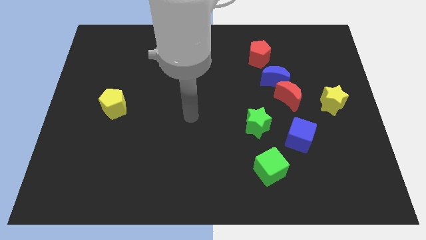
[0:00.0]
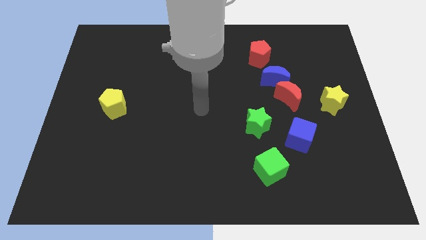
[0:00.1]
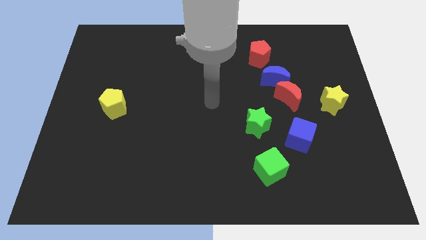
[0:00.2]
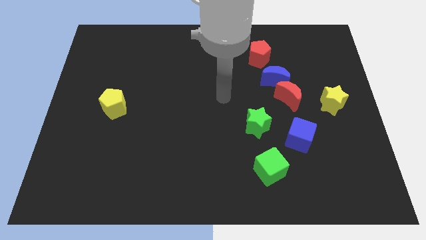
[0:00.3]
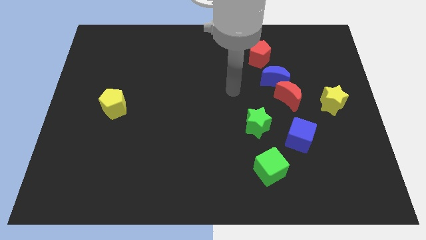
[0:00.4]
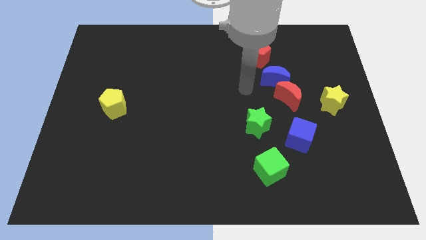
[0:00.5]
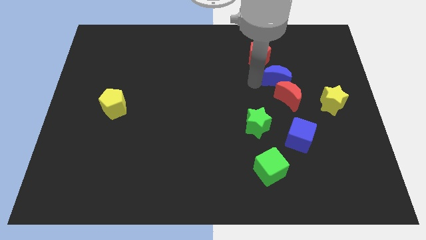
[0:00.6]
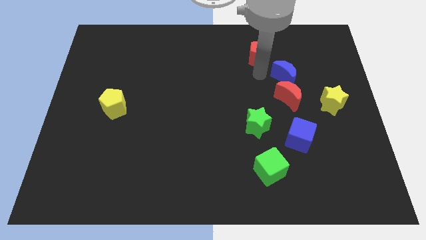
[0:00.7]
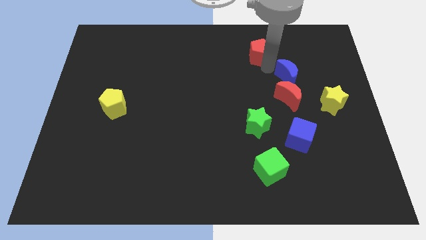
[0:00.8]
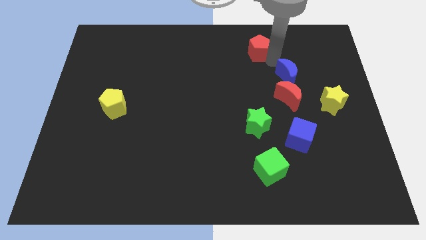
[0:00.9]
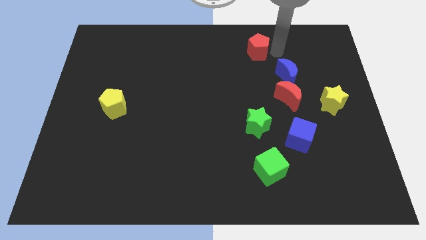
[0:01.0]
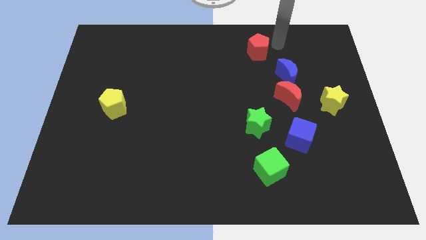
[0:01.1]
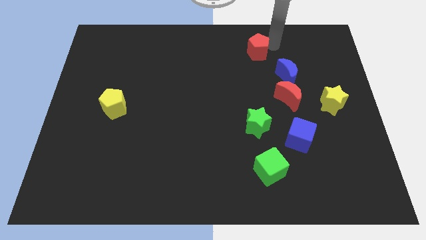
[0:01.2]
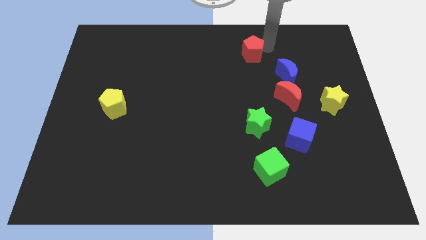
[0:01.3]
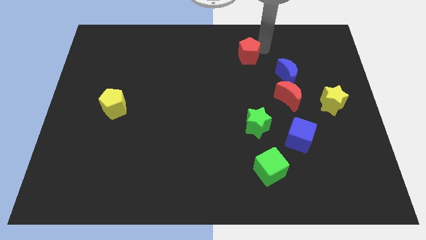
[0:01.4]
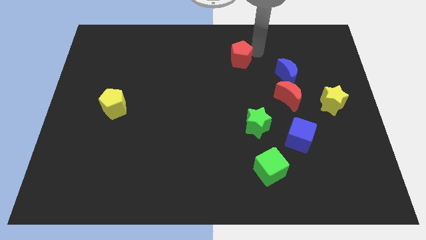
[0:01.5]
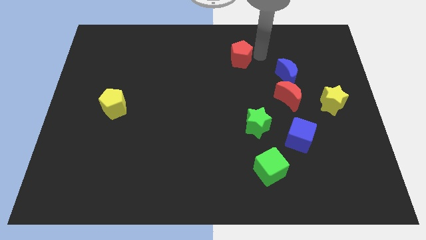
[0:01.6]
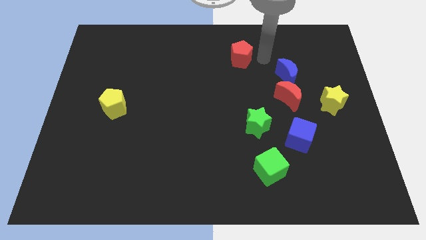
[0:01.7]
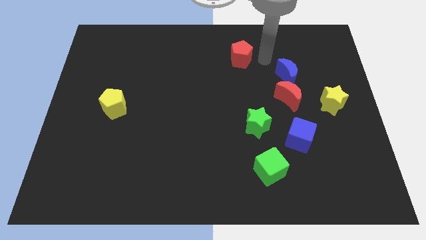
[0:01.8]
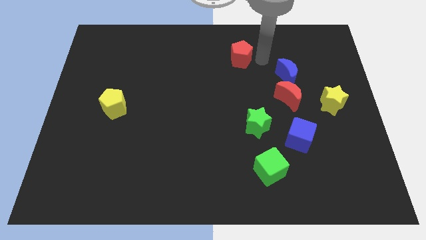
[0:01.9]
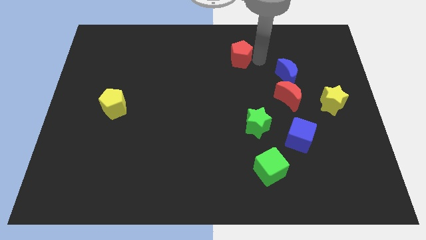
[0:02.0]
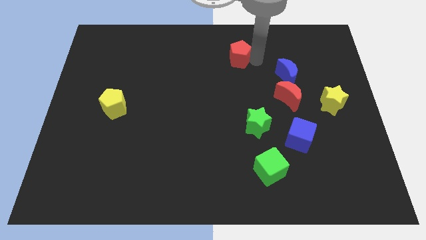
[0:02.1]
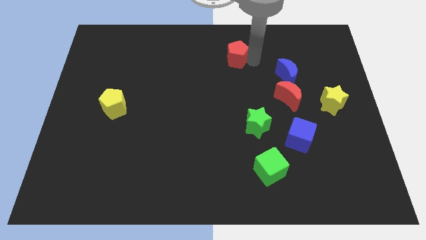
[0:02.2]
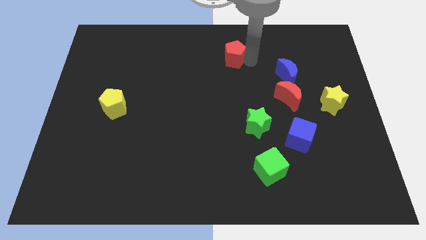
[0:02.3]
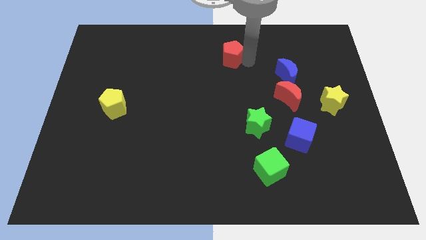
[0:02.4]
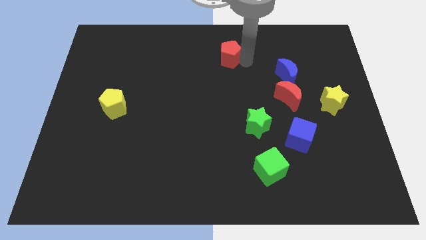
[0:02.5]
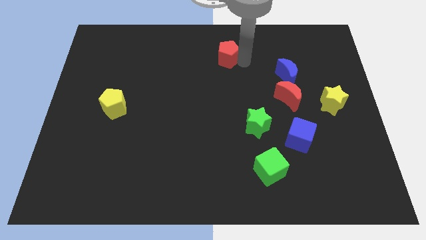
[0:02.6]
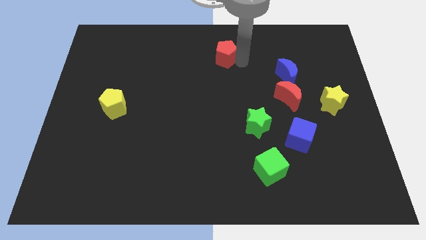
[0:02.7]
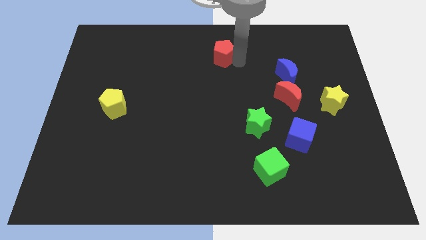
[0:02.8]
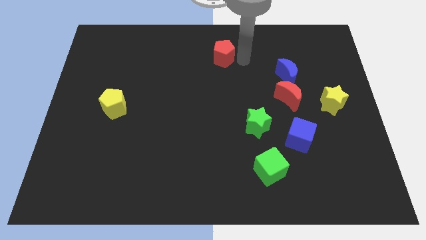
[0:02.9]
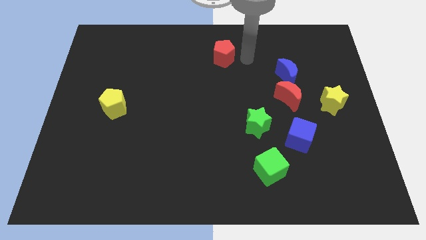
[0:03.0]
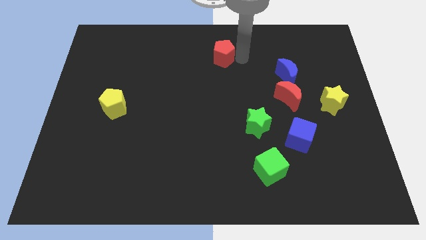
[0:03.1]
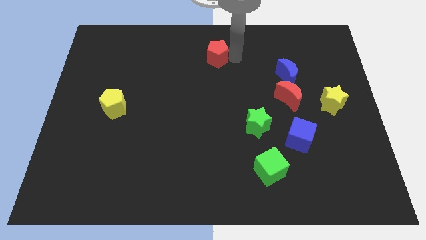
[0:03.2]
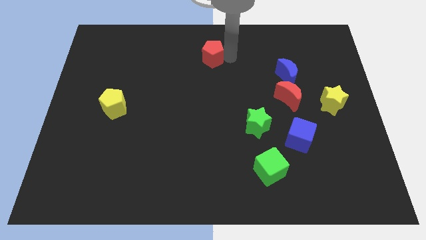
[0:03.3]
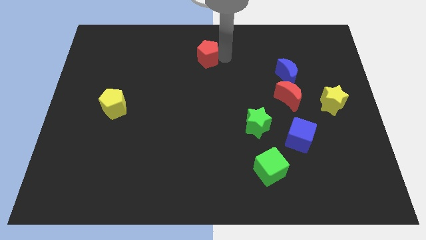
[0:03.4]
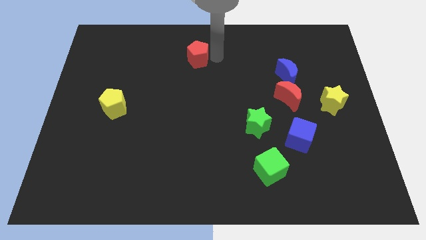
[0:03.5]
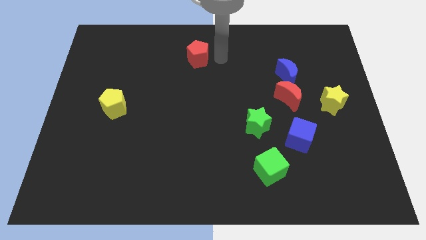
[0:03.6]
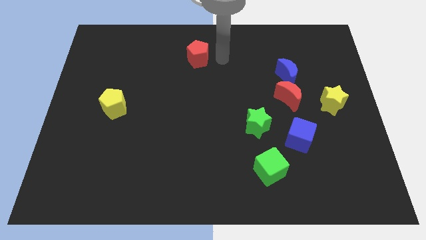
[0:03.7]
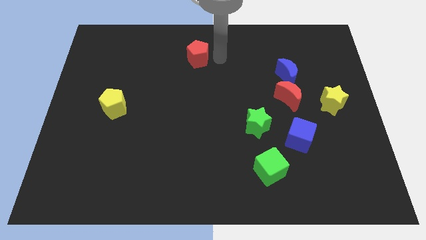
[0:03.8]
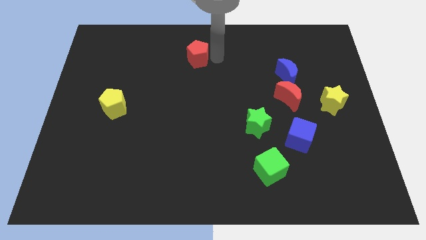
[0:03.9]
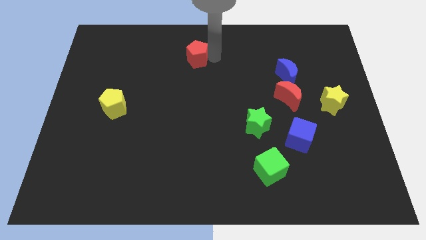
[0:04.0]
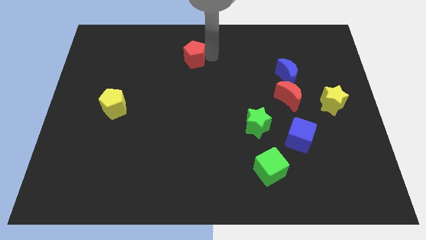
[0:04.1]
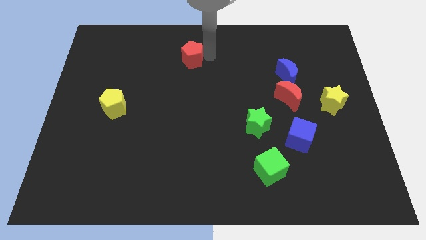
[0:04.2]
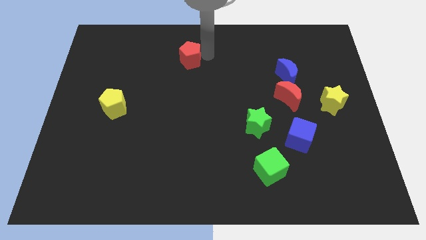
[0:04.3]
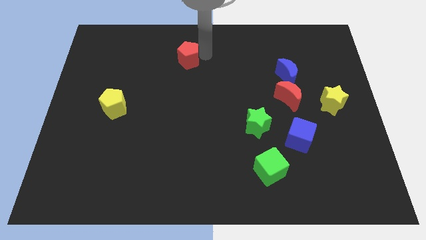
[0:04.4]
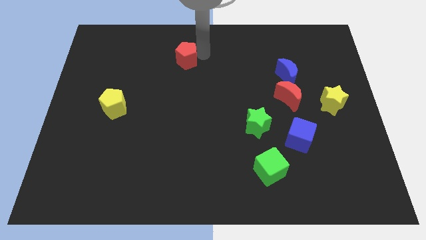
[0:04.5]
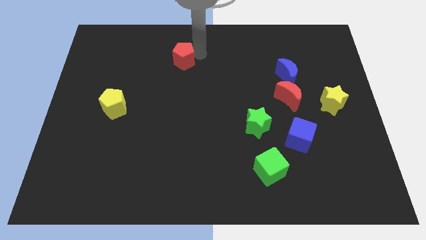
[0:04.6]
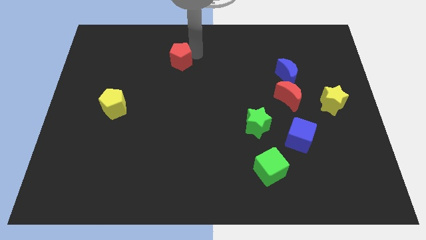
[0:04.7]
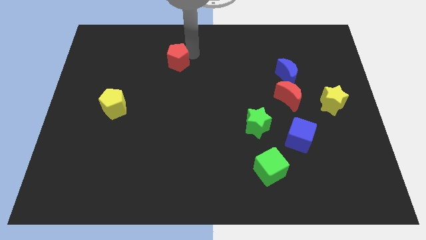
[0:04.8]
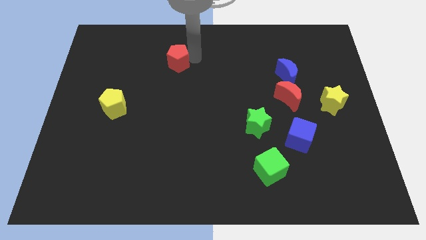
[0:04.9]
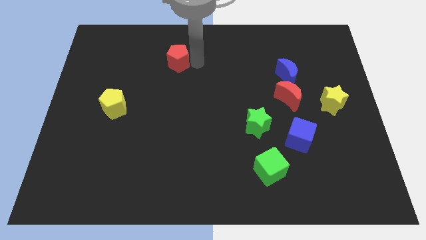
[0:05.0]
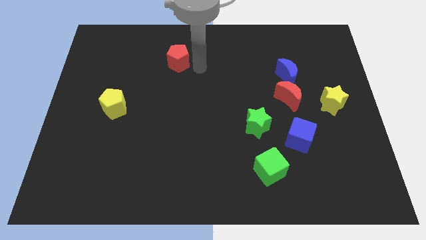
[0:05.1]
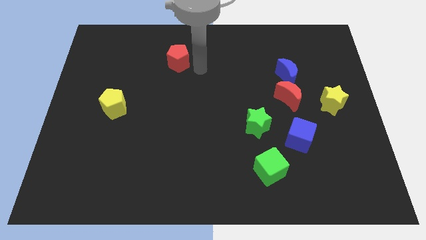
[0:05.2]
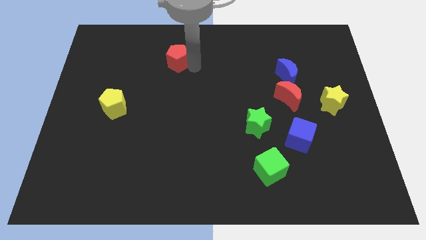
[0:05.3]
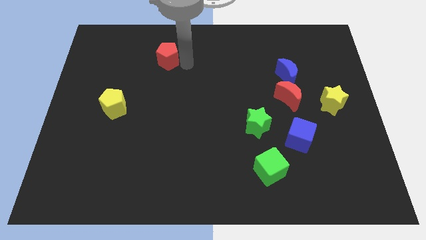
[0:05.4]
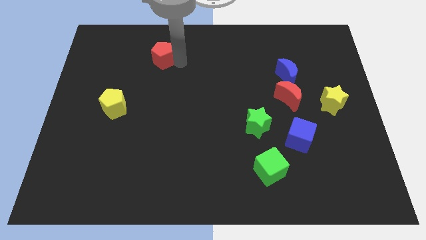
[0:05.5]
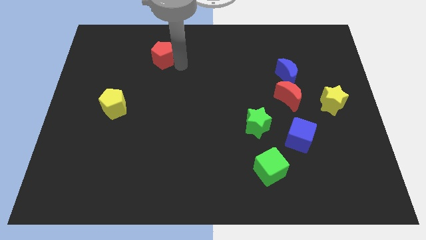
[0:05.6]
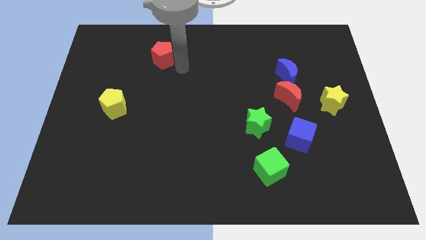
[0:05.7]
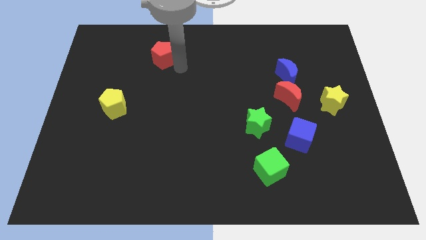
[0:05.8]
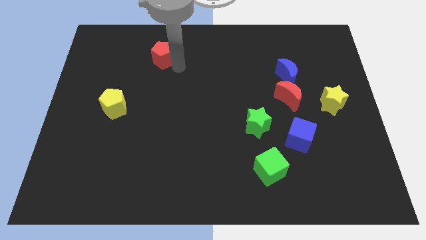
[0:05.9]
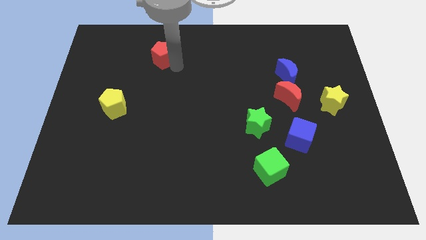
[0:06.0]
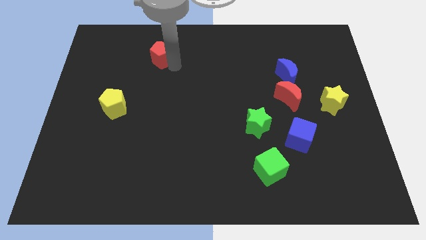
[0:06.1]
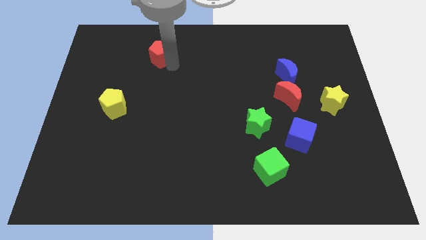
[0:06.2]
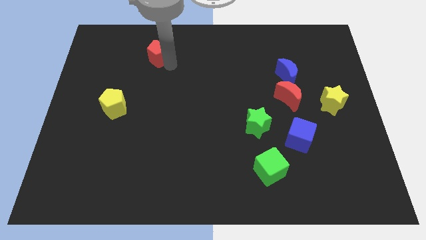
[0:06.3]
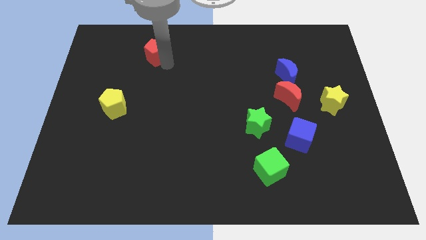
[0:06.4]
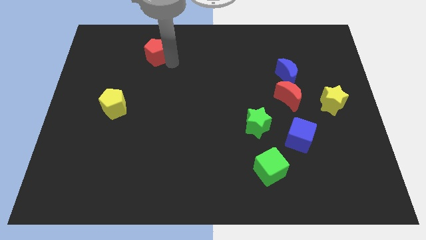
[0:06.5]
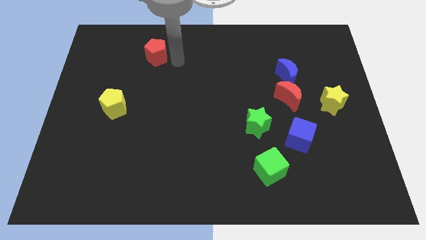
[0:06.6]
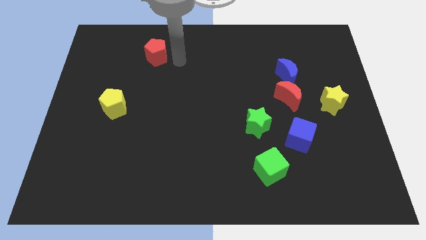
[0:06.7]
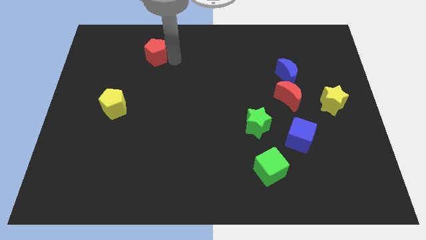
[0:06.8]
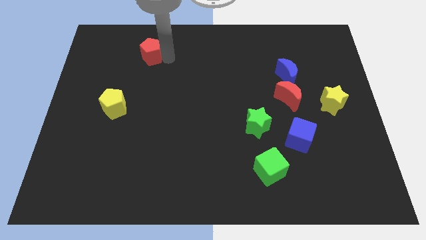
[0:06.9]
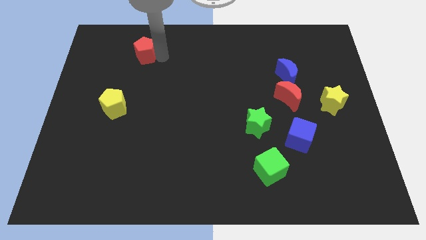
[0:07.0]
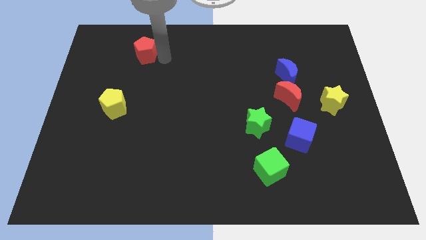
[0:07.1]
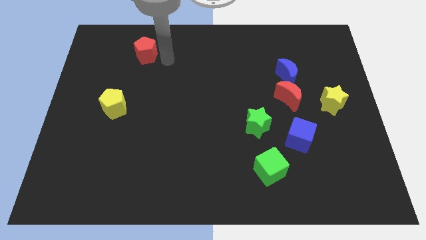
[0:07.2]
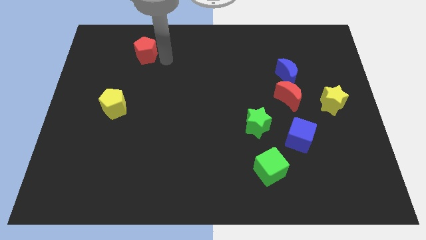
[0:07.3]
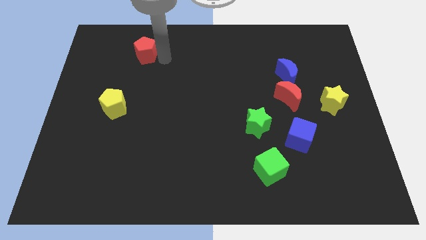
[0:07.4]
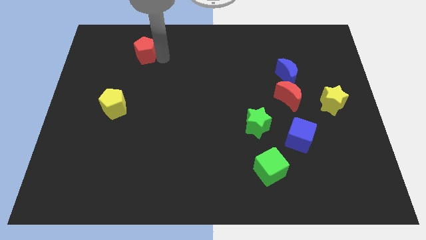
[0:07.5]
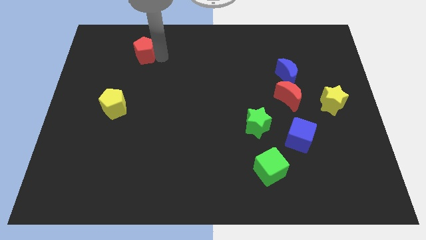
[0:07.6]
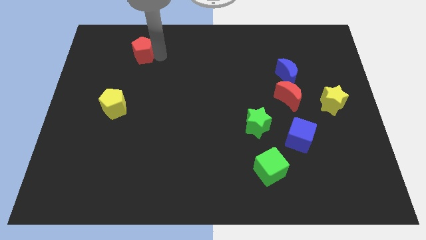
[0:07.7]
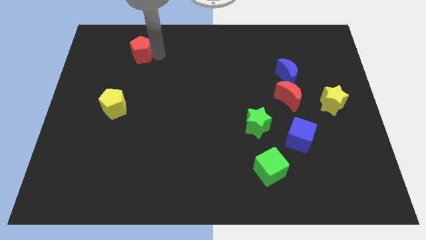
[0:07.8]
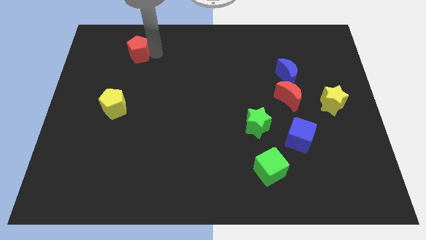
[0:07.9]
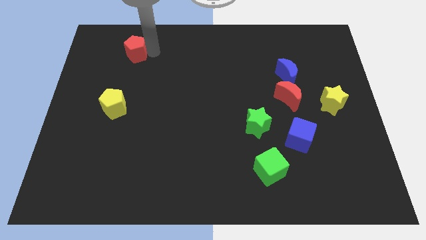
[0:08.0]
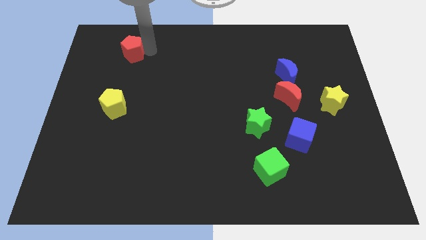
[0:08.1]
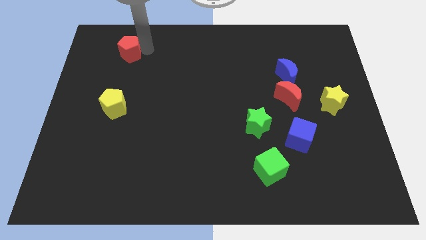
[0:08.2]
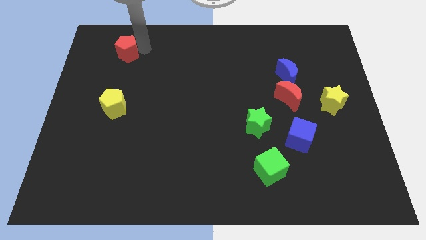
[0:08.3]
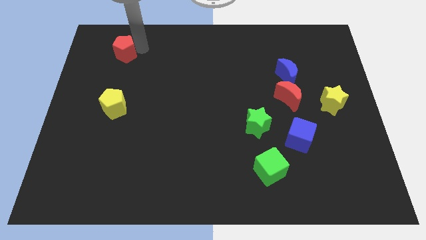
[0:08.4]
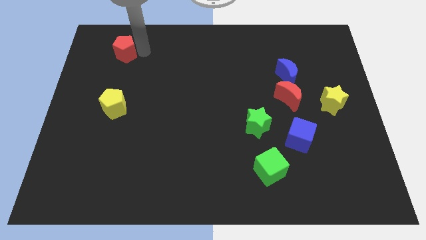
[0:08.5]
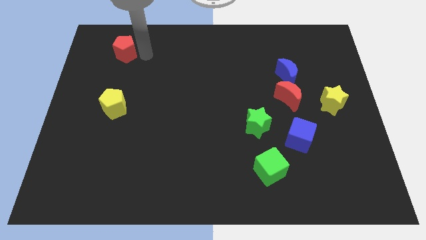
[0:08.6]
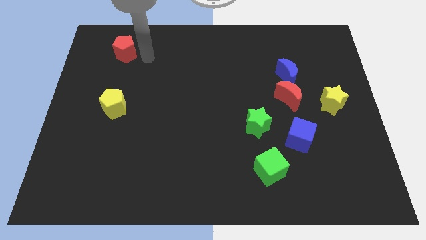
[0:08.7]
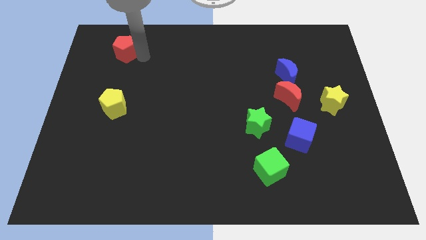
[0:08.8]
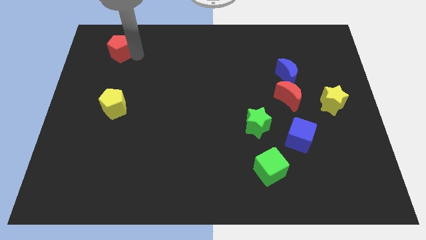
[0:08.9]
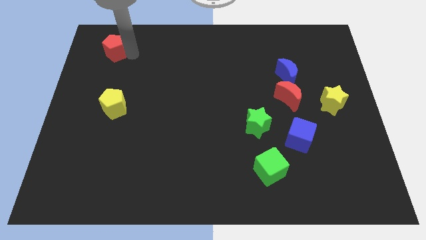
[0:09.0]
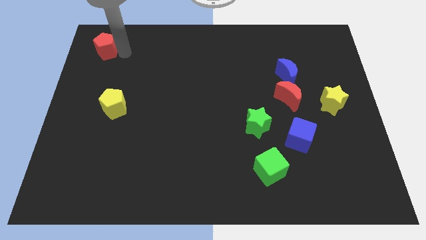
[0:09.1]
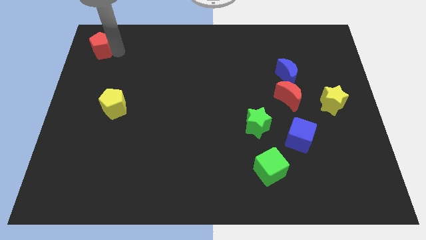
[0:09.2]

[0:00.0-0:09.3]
push the red pentagon to the upper left corner
